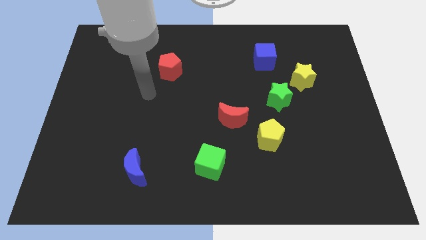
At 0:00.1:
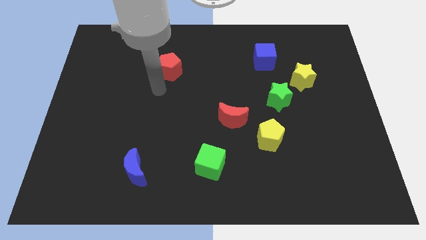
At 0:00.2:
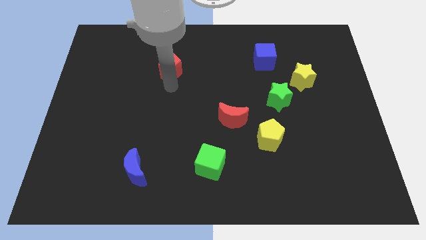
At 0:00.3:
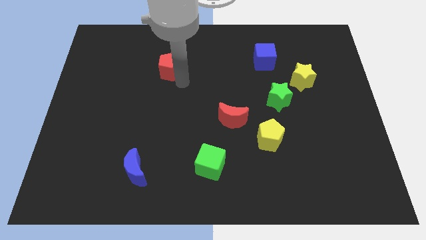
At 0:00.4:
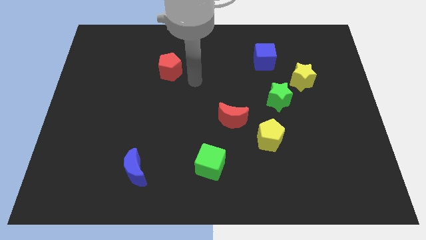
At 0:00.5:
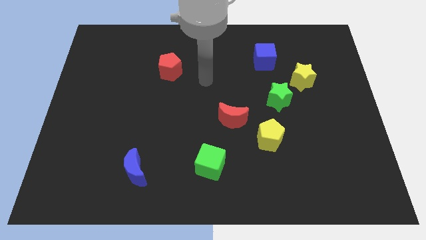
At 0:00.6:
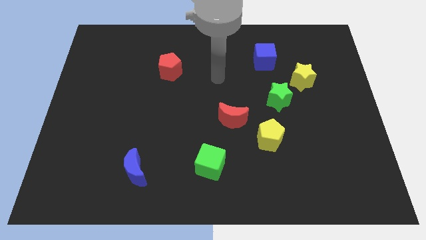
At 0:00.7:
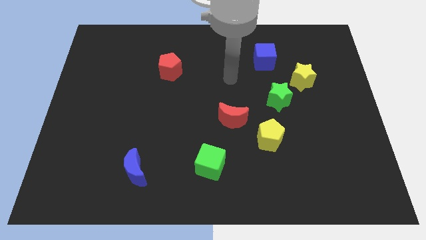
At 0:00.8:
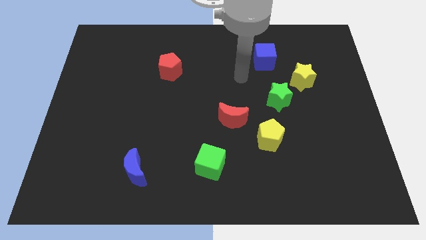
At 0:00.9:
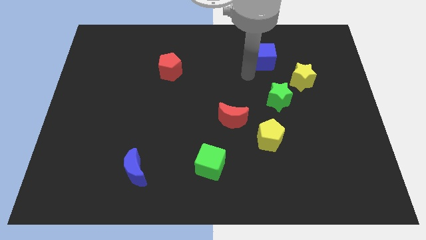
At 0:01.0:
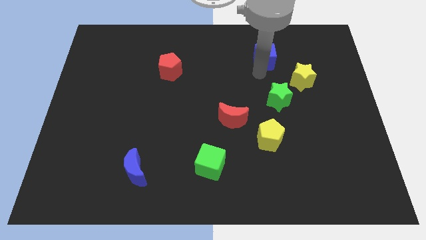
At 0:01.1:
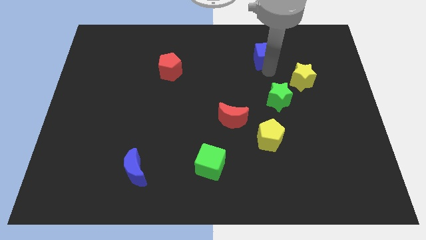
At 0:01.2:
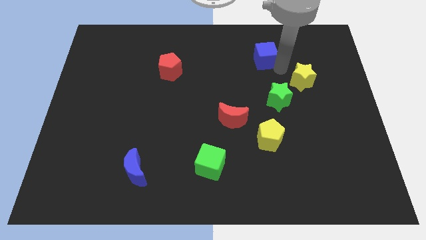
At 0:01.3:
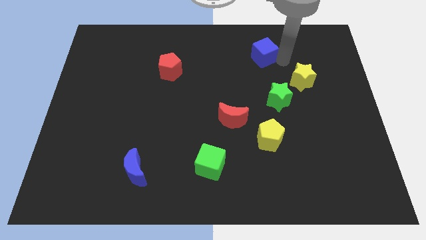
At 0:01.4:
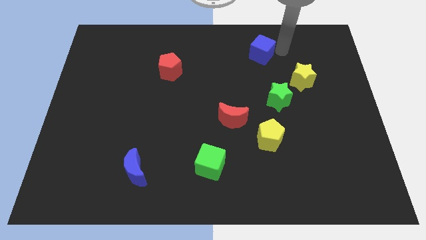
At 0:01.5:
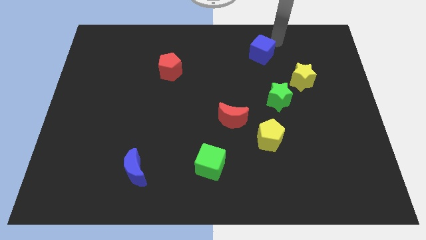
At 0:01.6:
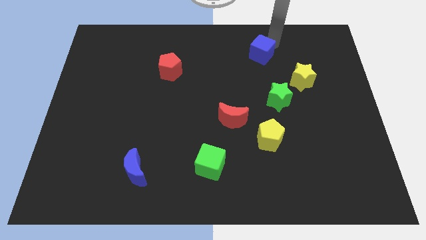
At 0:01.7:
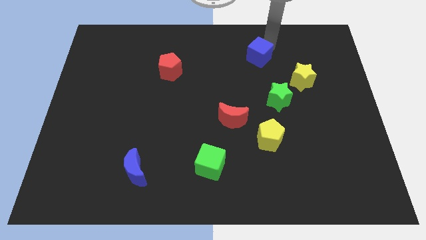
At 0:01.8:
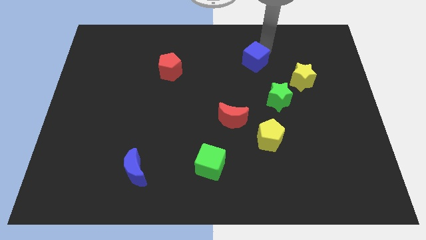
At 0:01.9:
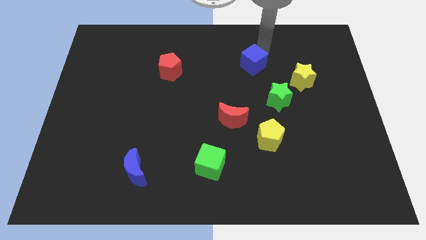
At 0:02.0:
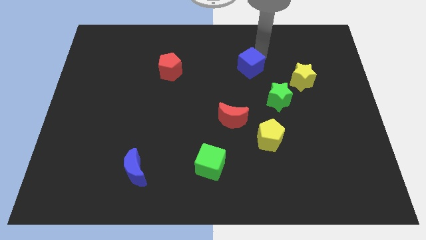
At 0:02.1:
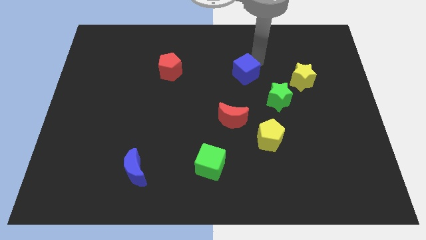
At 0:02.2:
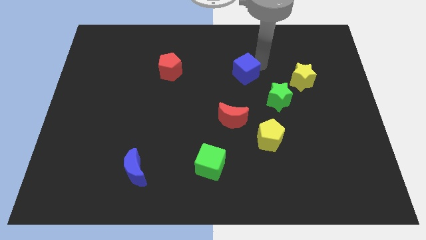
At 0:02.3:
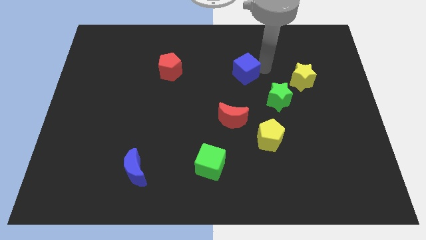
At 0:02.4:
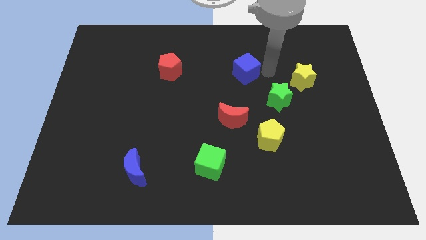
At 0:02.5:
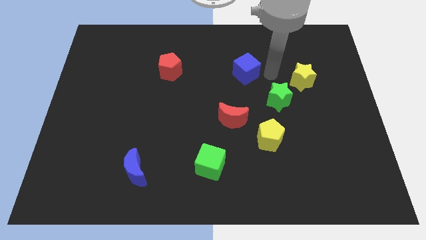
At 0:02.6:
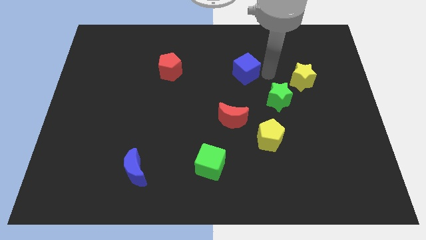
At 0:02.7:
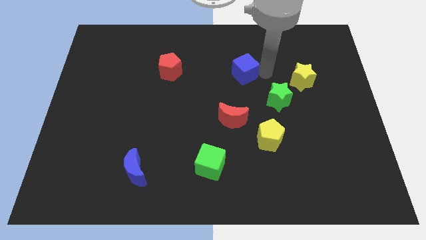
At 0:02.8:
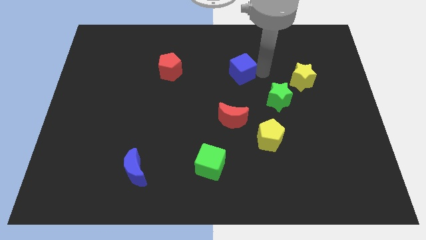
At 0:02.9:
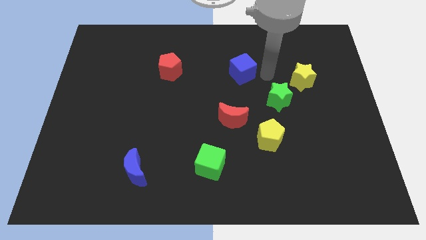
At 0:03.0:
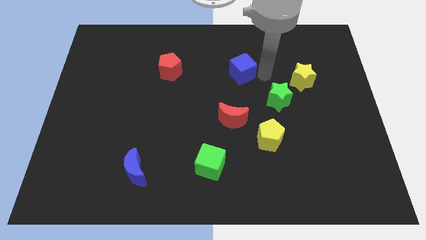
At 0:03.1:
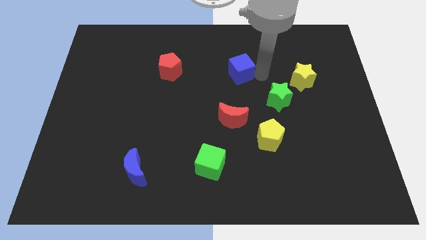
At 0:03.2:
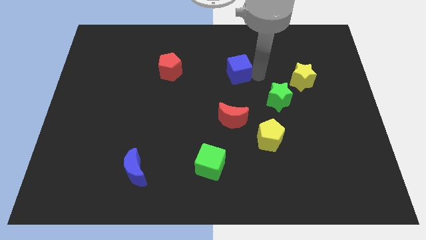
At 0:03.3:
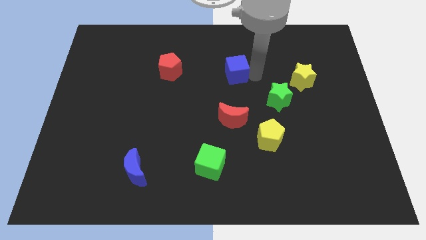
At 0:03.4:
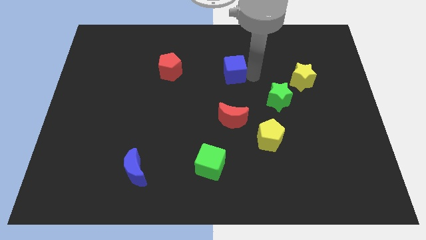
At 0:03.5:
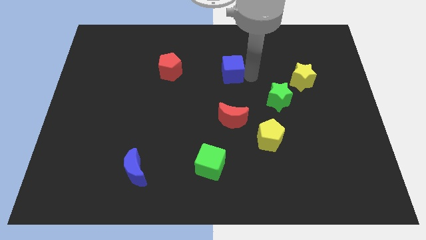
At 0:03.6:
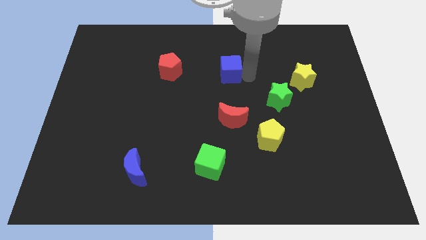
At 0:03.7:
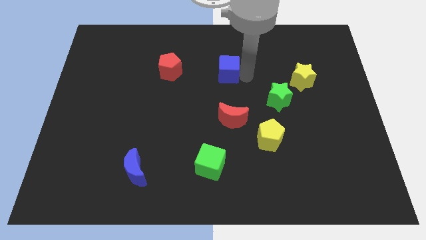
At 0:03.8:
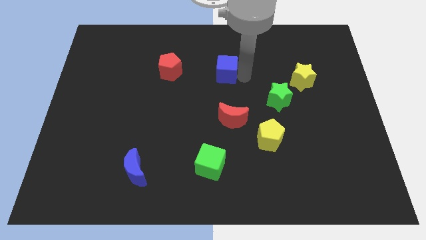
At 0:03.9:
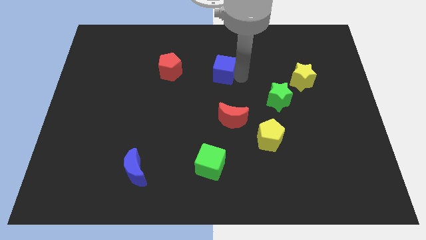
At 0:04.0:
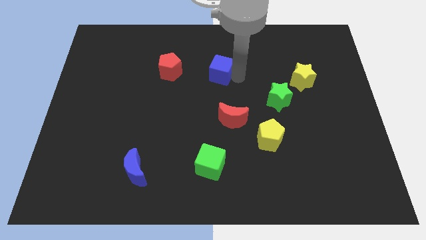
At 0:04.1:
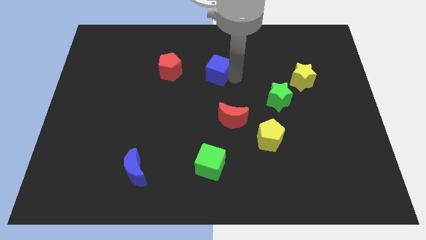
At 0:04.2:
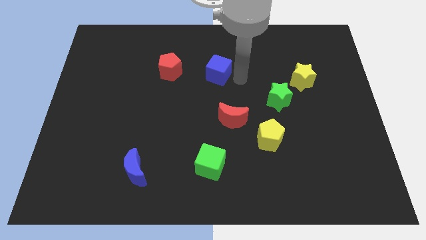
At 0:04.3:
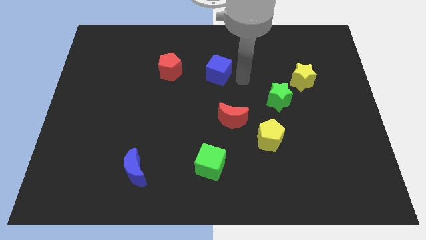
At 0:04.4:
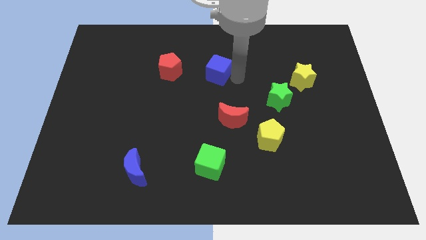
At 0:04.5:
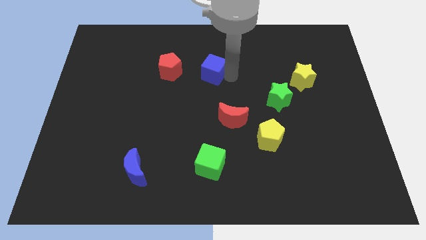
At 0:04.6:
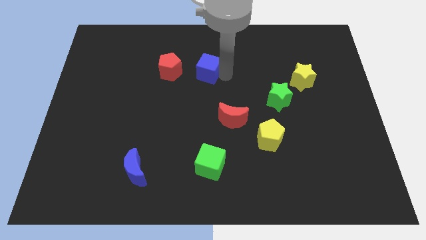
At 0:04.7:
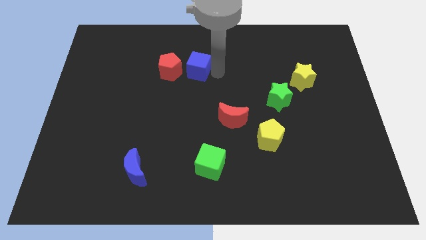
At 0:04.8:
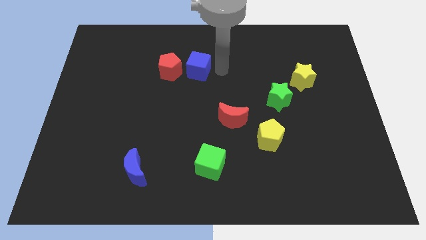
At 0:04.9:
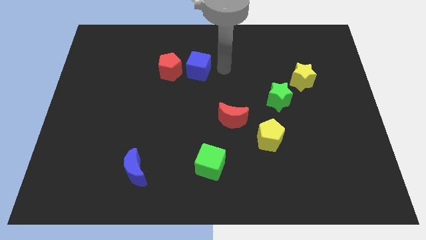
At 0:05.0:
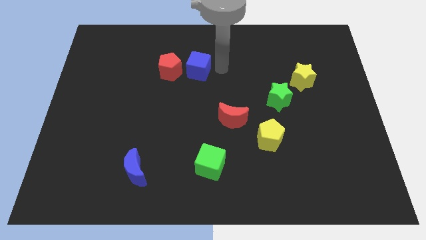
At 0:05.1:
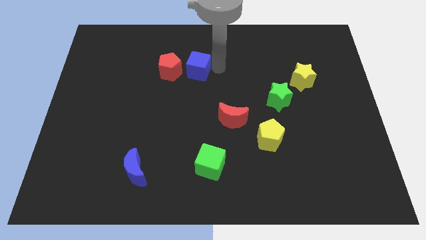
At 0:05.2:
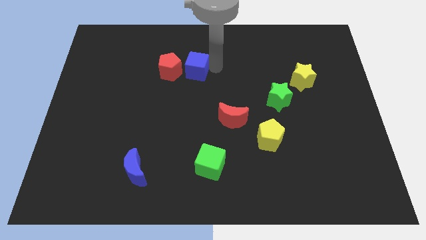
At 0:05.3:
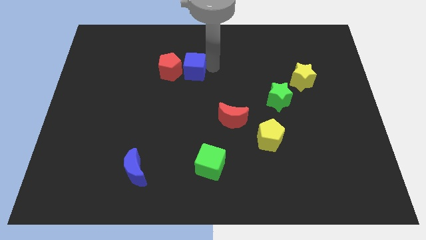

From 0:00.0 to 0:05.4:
move the blue cube towards the red pentagon

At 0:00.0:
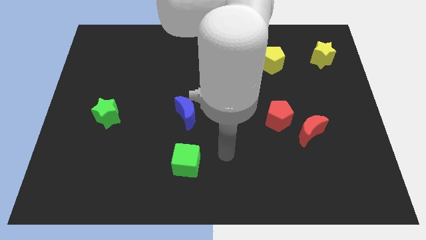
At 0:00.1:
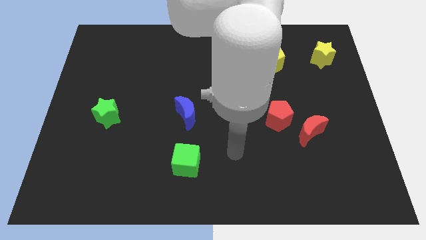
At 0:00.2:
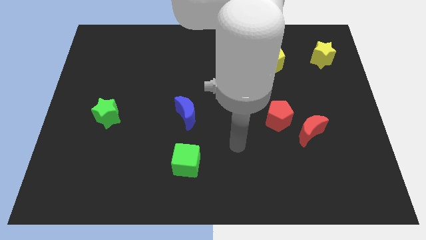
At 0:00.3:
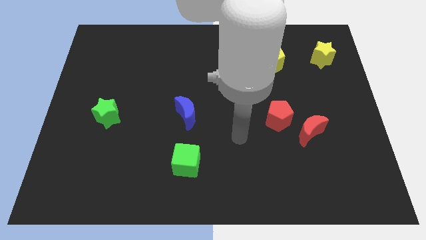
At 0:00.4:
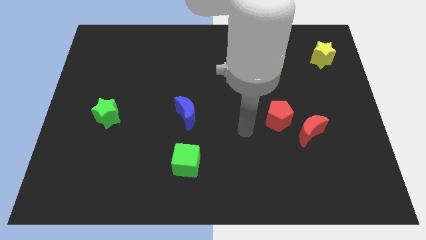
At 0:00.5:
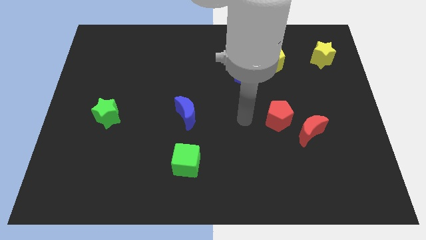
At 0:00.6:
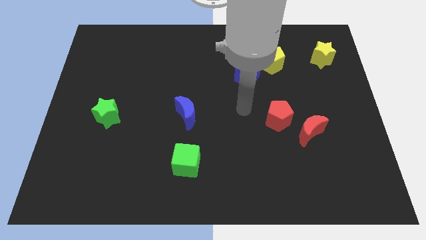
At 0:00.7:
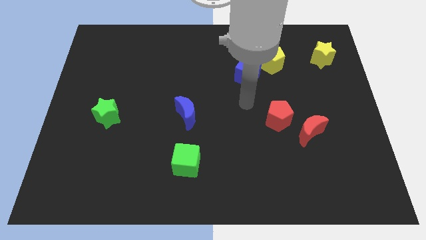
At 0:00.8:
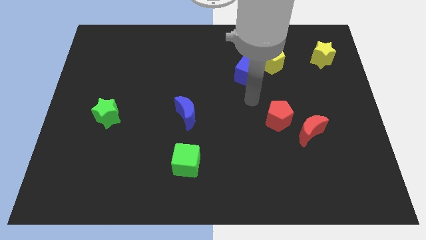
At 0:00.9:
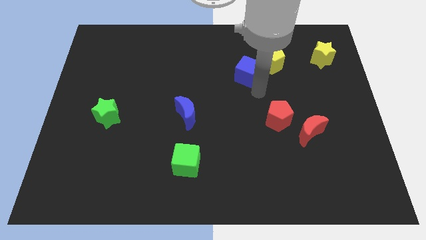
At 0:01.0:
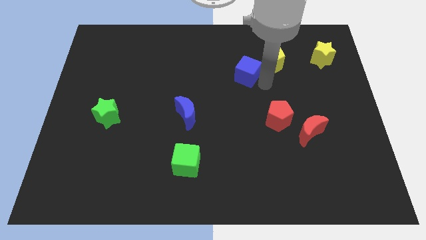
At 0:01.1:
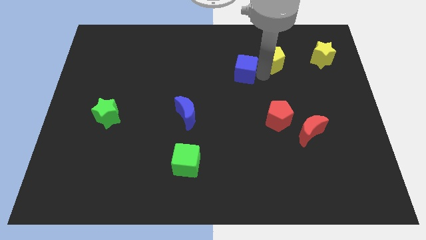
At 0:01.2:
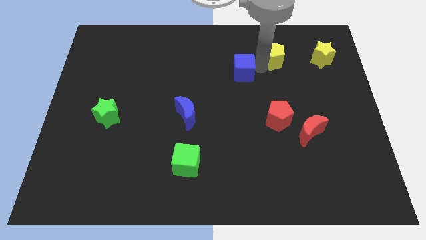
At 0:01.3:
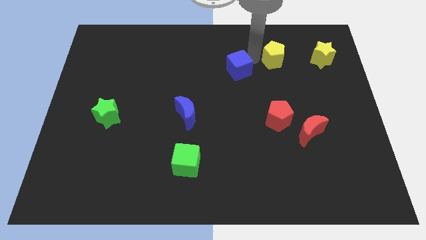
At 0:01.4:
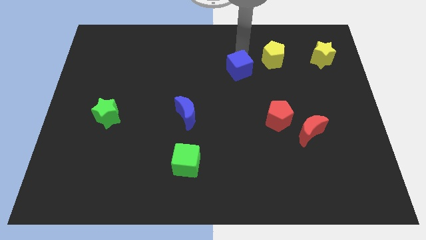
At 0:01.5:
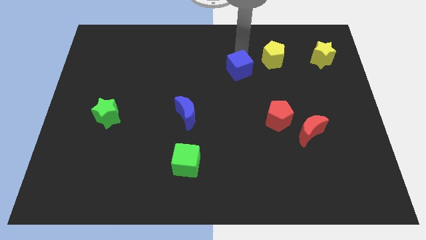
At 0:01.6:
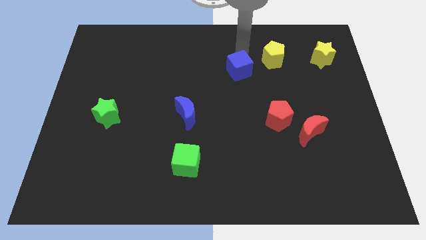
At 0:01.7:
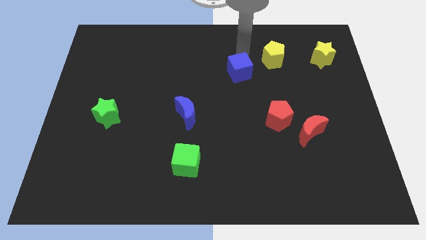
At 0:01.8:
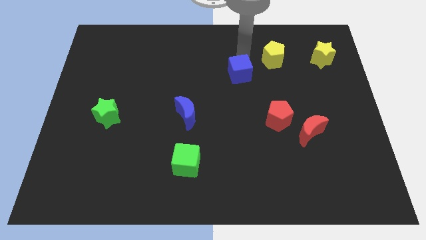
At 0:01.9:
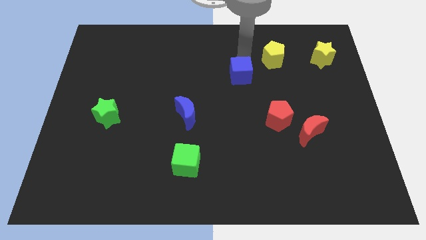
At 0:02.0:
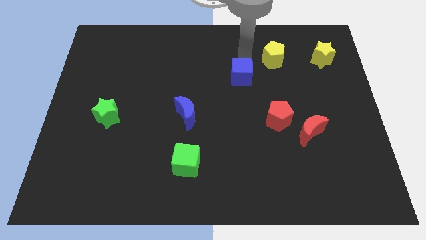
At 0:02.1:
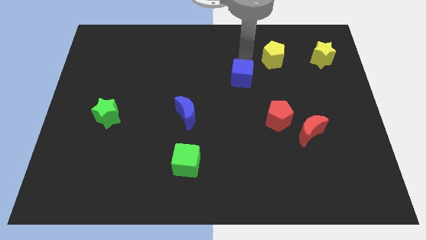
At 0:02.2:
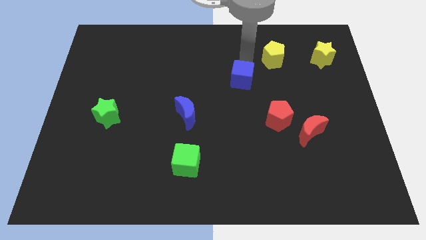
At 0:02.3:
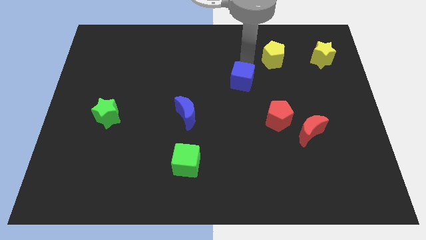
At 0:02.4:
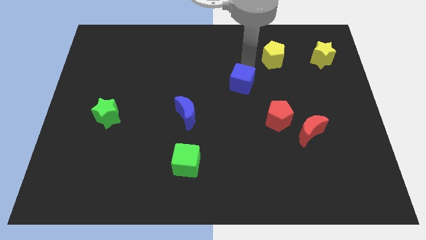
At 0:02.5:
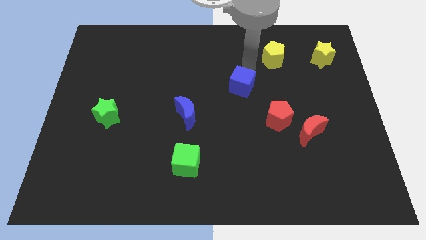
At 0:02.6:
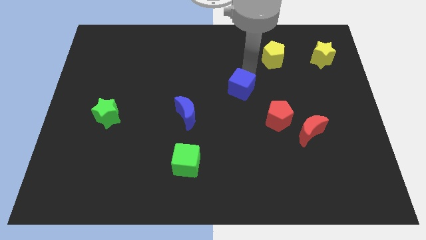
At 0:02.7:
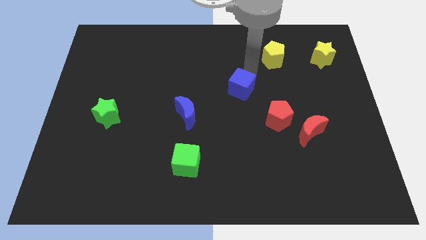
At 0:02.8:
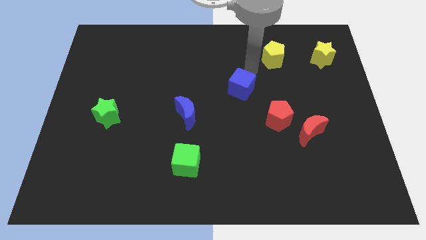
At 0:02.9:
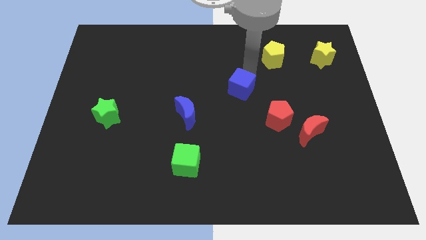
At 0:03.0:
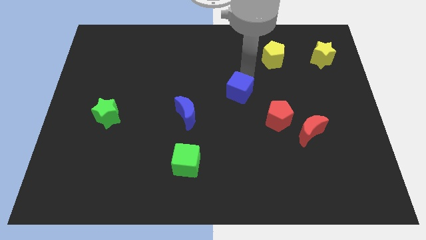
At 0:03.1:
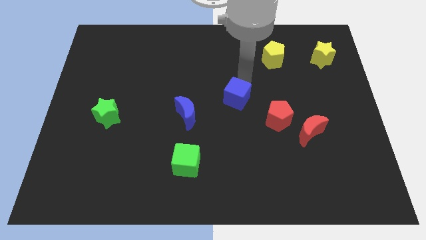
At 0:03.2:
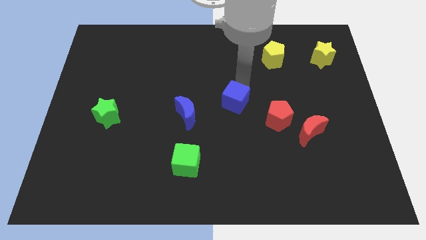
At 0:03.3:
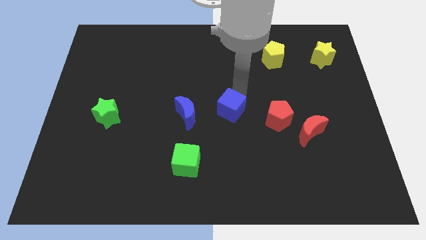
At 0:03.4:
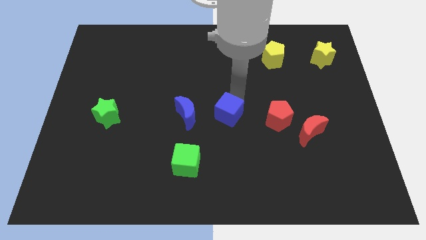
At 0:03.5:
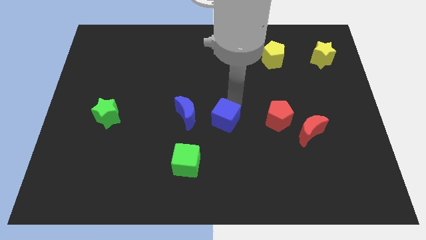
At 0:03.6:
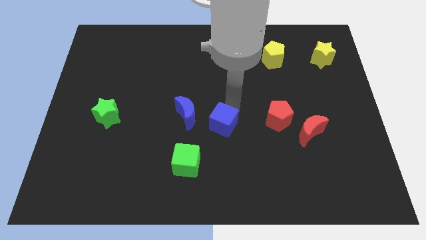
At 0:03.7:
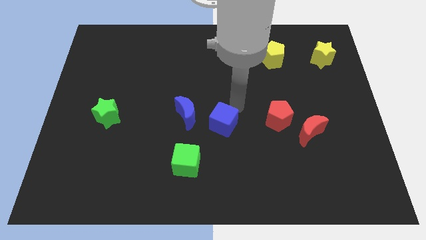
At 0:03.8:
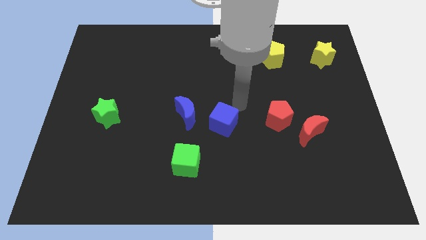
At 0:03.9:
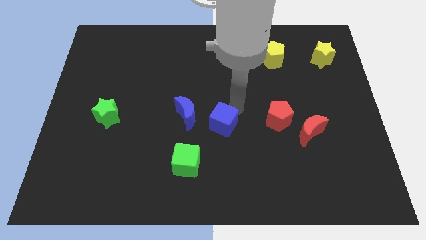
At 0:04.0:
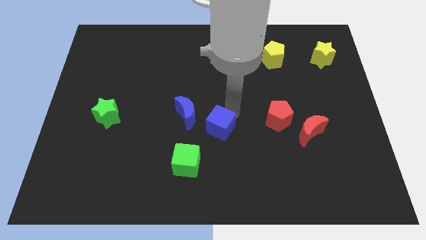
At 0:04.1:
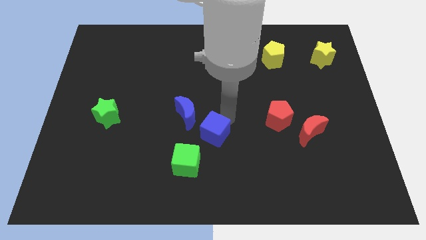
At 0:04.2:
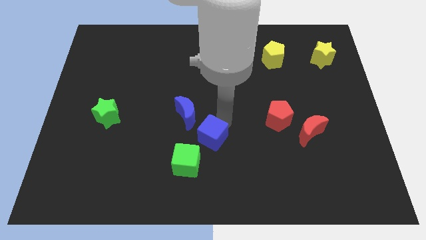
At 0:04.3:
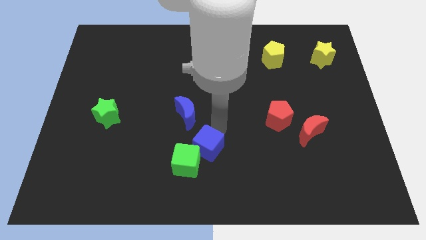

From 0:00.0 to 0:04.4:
put the blue cube next to the green cube
